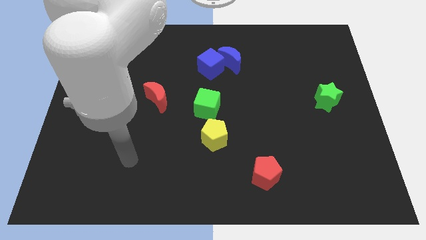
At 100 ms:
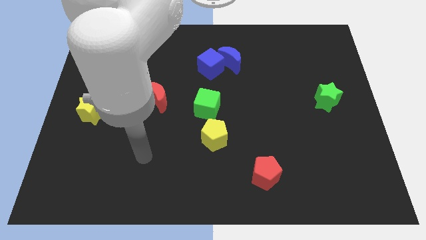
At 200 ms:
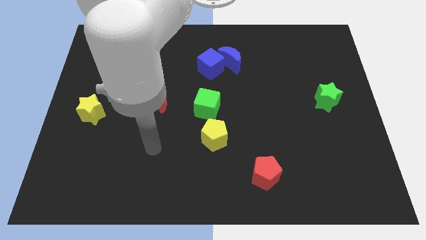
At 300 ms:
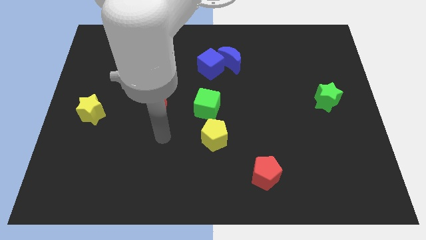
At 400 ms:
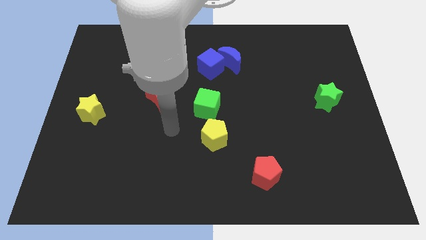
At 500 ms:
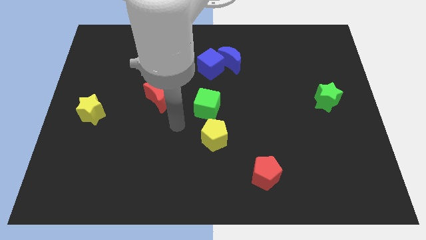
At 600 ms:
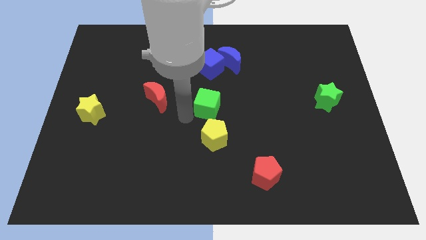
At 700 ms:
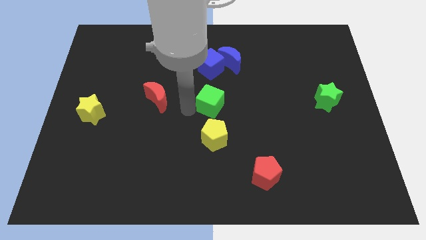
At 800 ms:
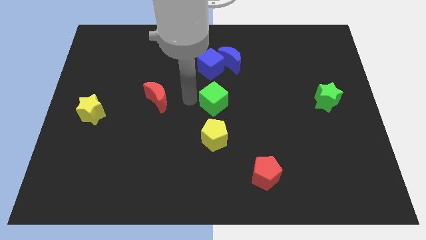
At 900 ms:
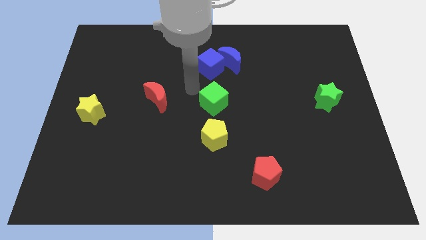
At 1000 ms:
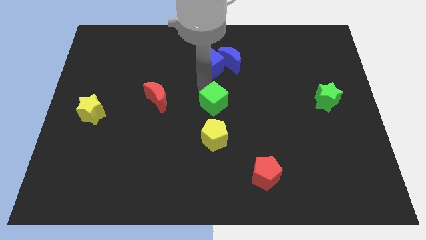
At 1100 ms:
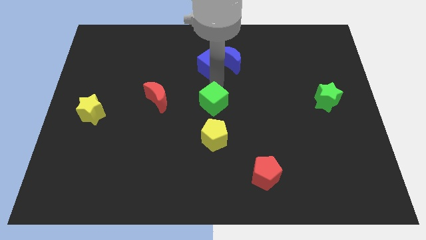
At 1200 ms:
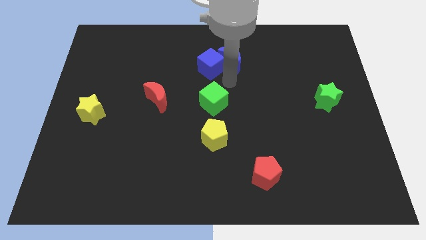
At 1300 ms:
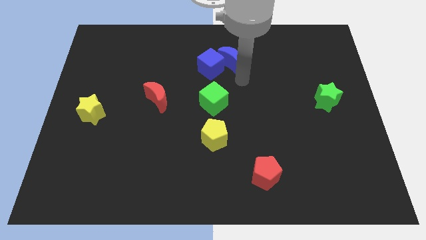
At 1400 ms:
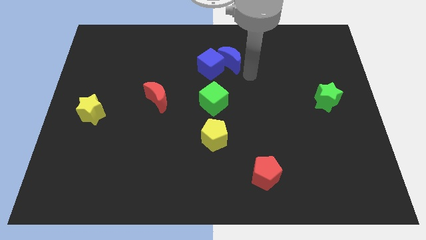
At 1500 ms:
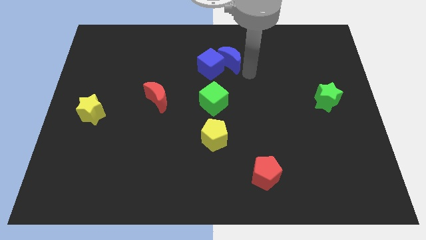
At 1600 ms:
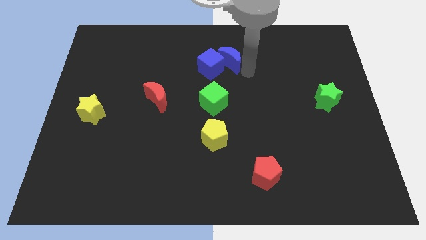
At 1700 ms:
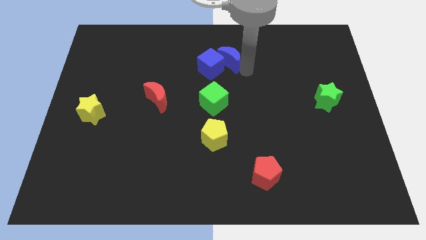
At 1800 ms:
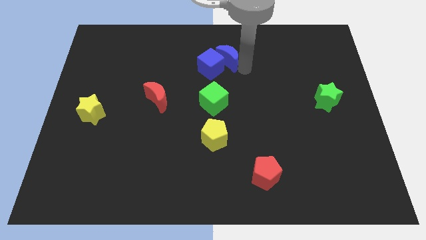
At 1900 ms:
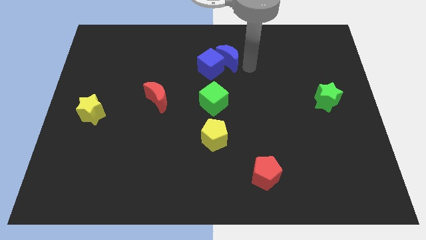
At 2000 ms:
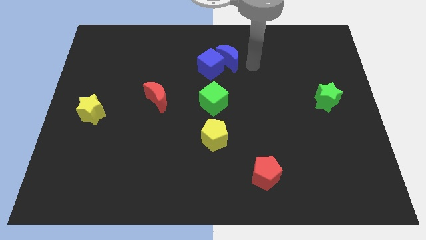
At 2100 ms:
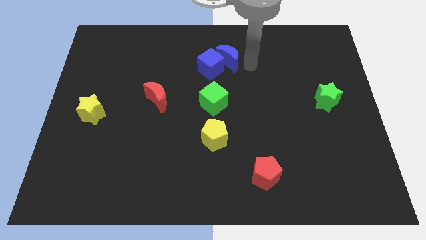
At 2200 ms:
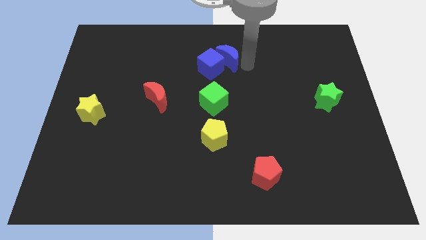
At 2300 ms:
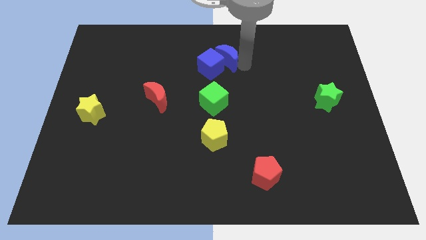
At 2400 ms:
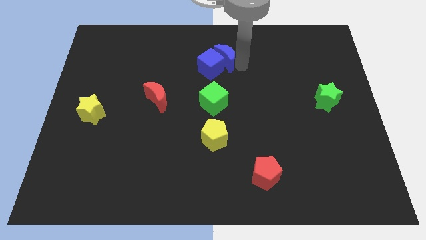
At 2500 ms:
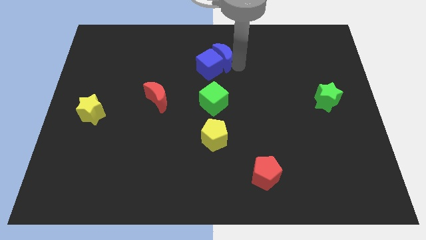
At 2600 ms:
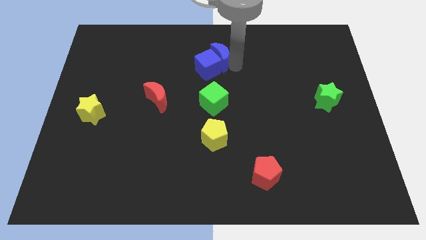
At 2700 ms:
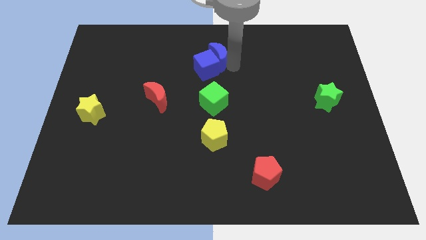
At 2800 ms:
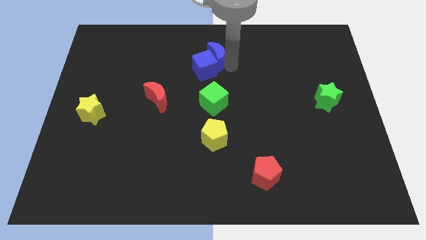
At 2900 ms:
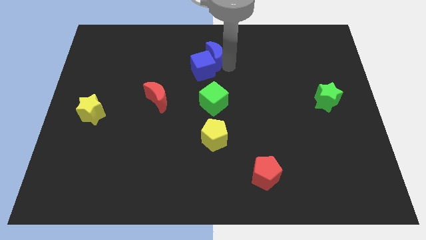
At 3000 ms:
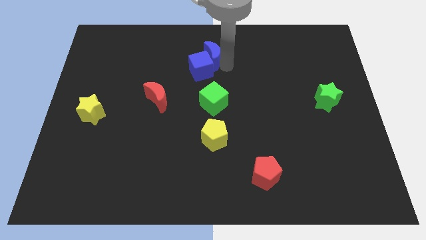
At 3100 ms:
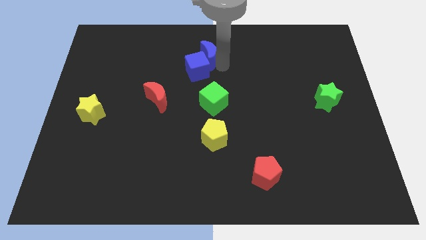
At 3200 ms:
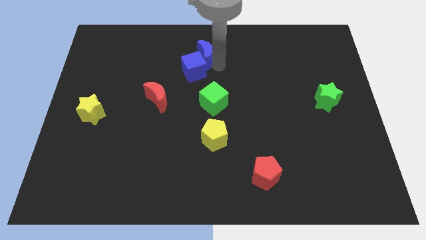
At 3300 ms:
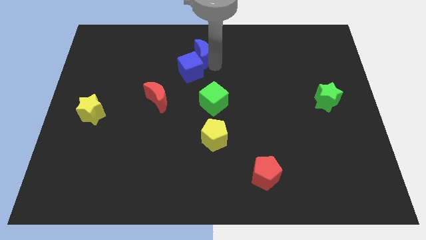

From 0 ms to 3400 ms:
slide the blue moon a little bit to the left

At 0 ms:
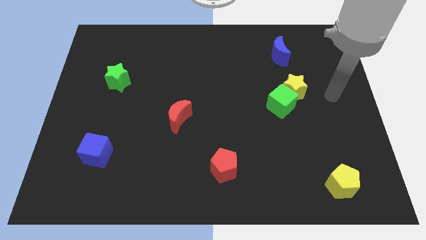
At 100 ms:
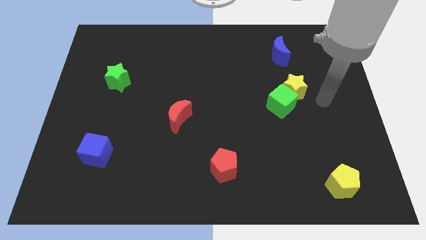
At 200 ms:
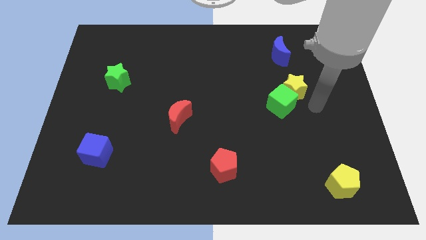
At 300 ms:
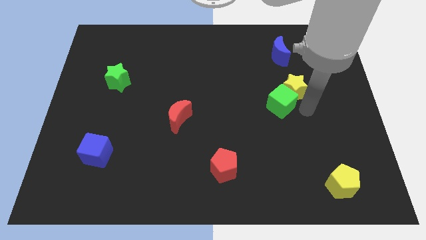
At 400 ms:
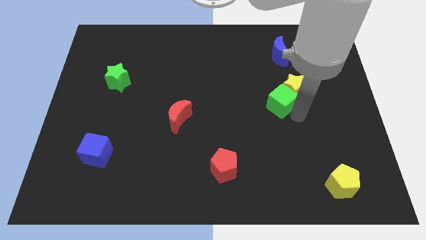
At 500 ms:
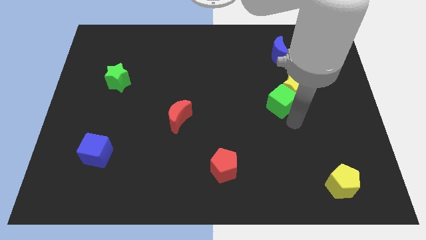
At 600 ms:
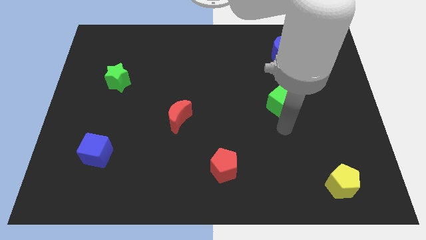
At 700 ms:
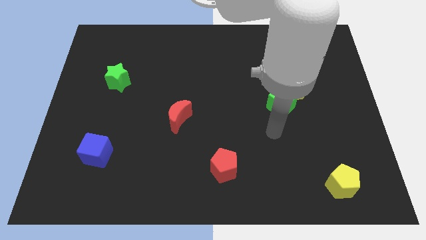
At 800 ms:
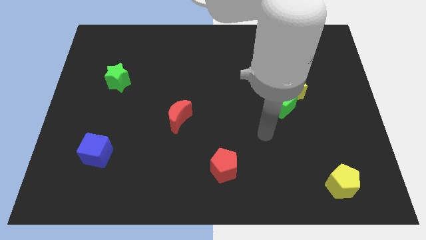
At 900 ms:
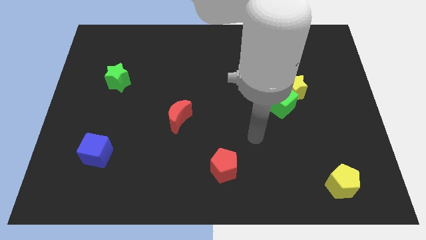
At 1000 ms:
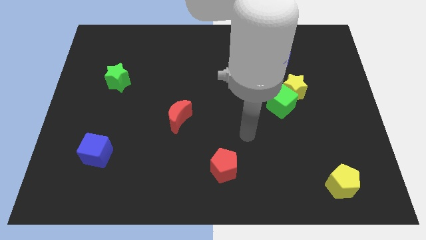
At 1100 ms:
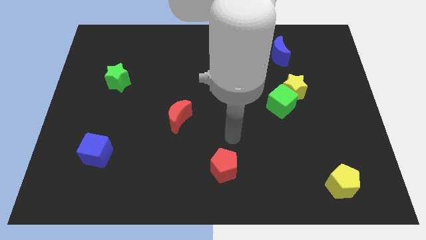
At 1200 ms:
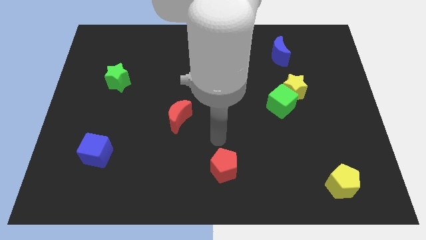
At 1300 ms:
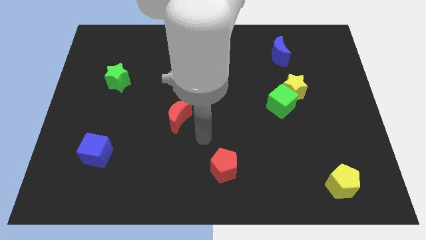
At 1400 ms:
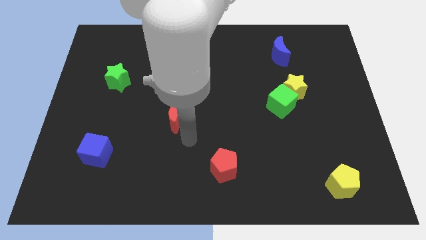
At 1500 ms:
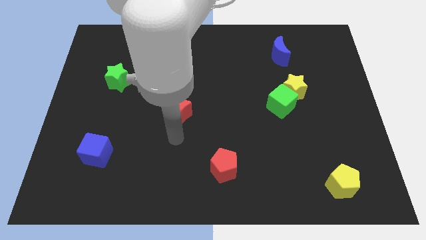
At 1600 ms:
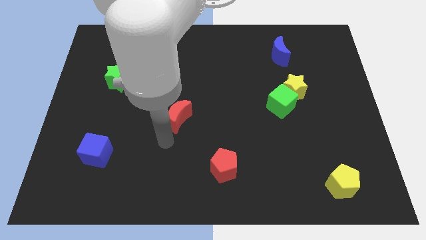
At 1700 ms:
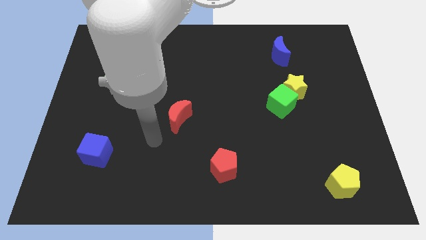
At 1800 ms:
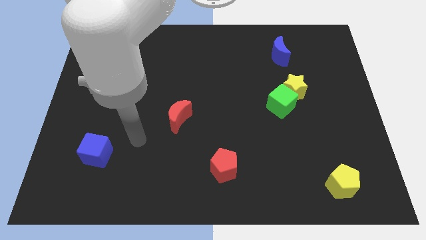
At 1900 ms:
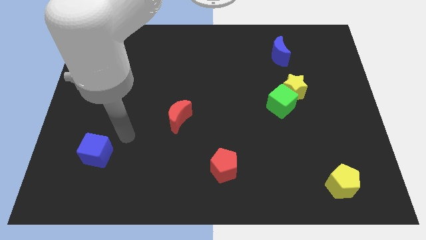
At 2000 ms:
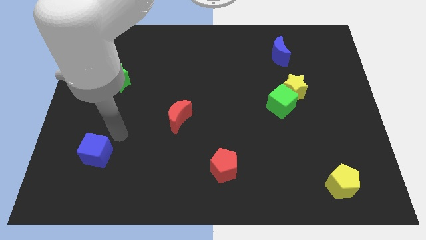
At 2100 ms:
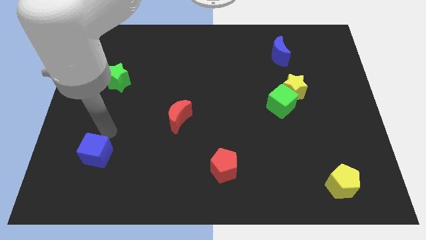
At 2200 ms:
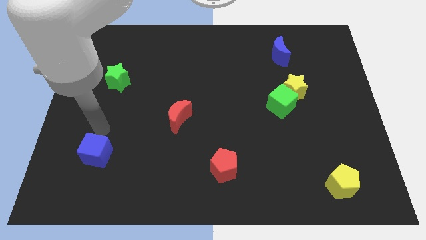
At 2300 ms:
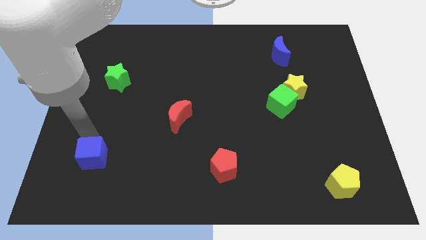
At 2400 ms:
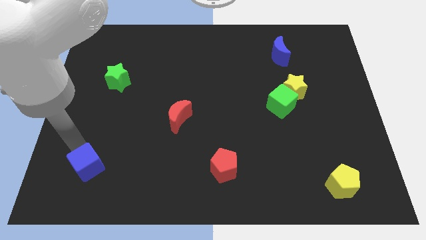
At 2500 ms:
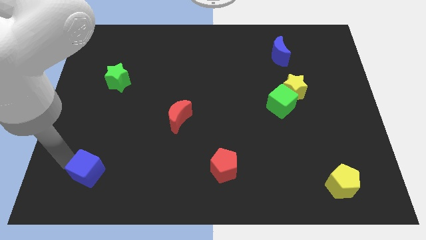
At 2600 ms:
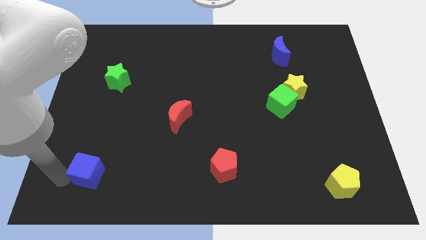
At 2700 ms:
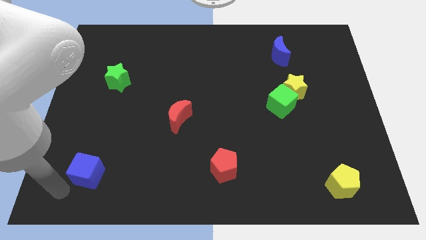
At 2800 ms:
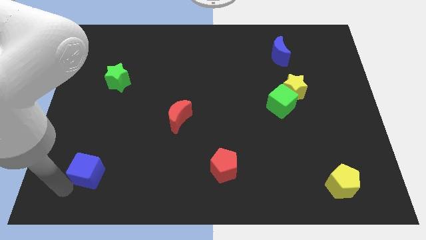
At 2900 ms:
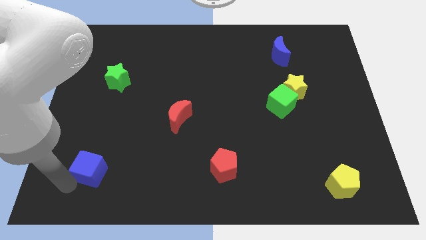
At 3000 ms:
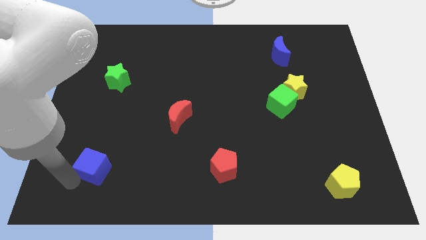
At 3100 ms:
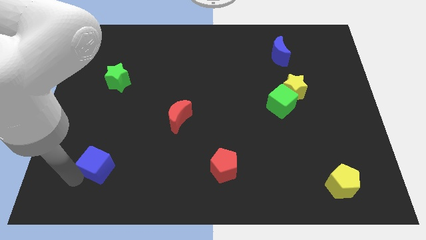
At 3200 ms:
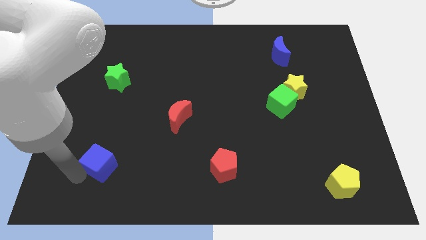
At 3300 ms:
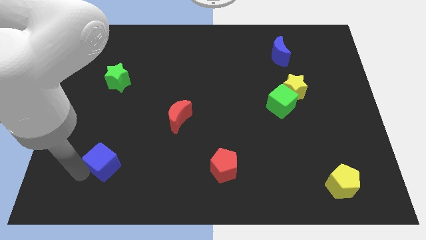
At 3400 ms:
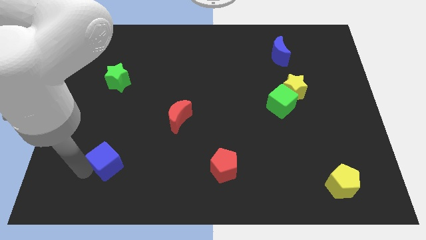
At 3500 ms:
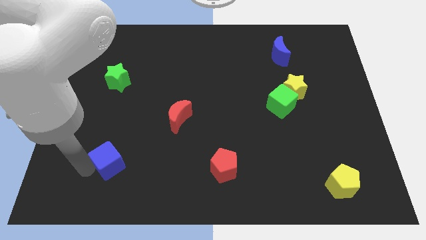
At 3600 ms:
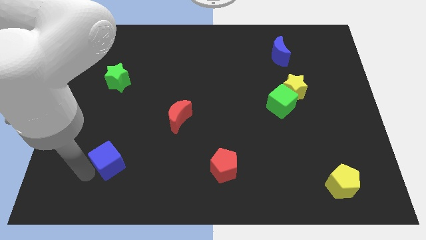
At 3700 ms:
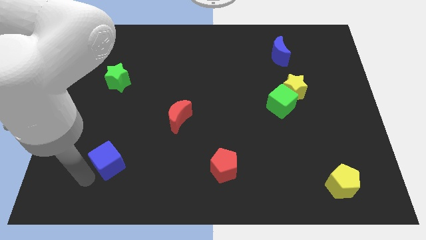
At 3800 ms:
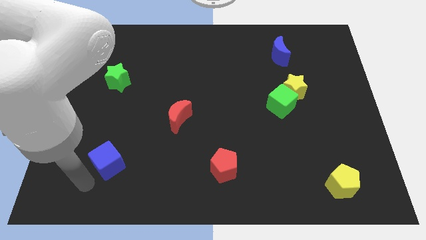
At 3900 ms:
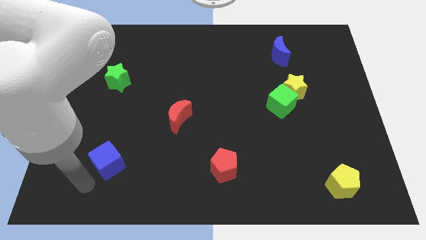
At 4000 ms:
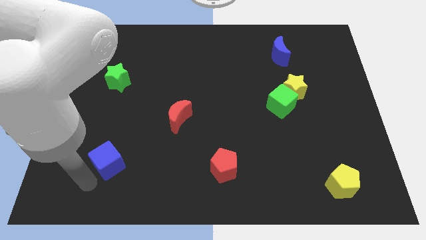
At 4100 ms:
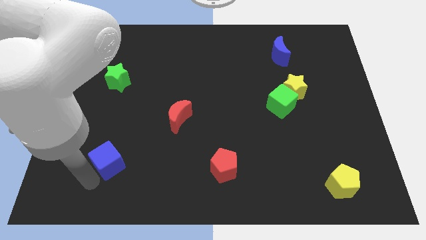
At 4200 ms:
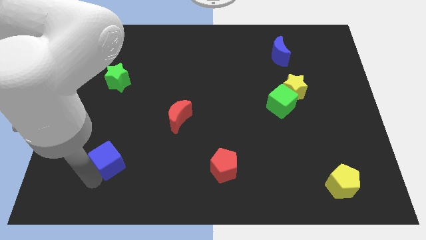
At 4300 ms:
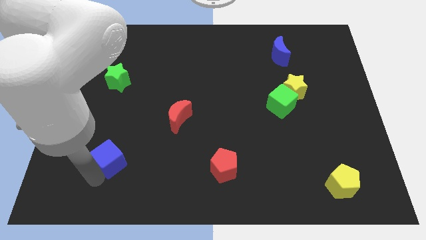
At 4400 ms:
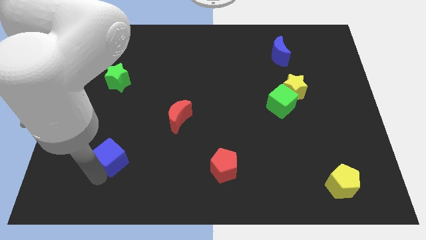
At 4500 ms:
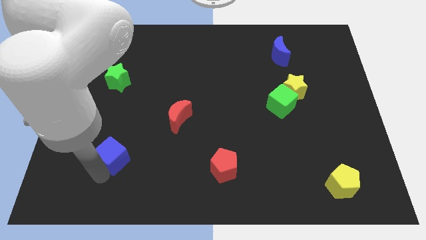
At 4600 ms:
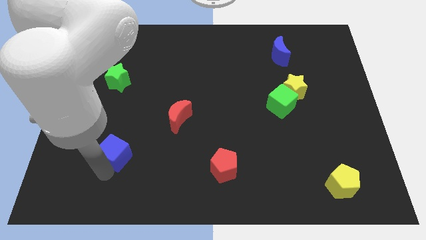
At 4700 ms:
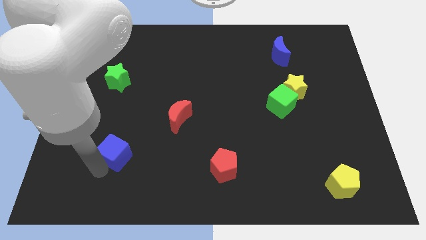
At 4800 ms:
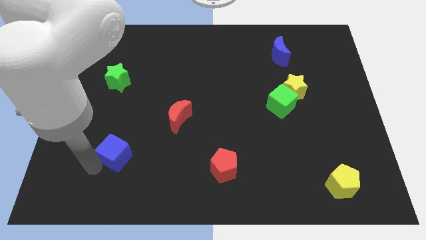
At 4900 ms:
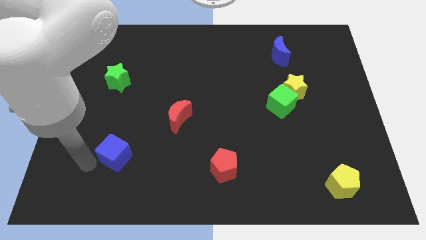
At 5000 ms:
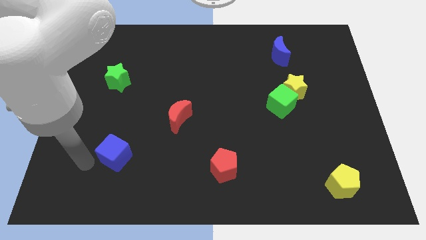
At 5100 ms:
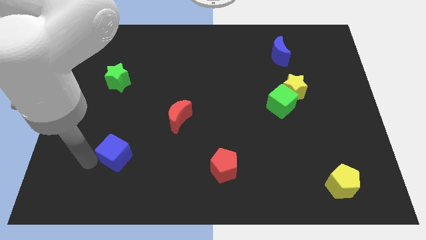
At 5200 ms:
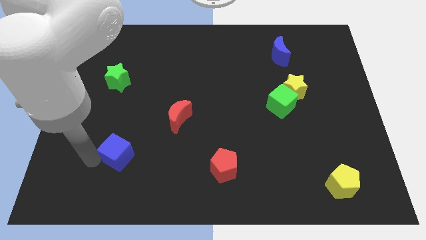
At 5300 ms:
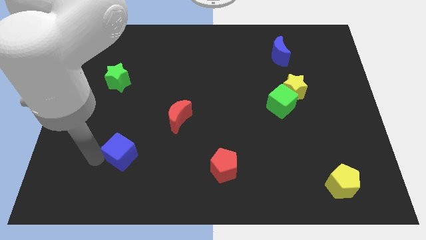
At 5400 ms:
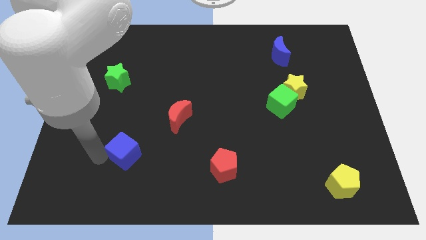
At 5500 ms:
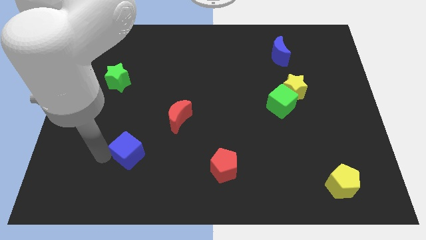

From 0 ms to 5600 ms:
move the blue cube a bit to the right
